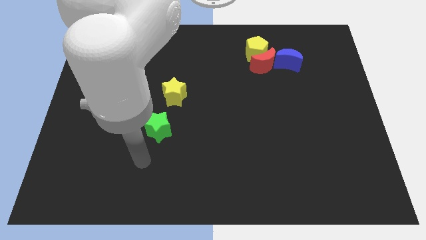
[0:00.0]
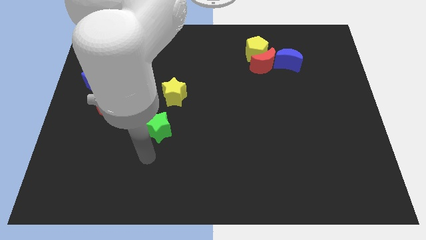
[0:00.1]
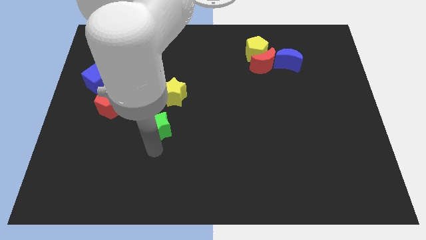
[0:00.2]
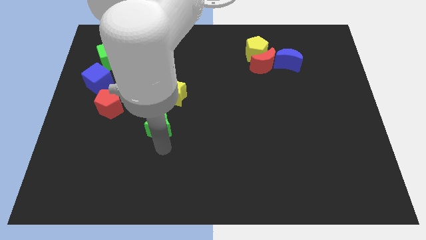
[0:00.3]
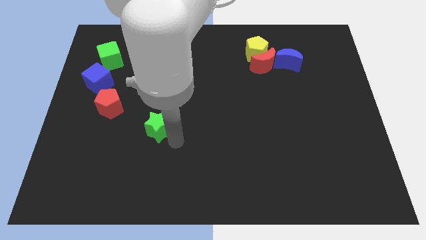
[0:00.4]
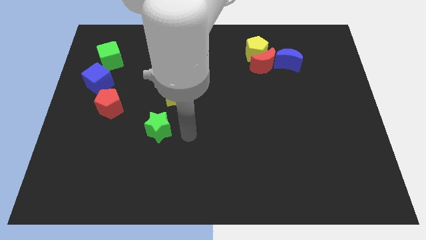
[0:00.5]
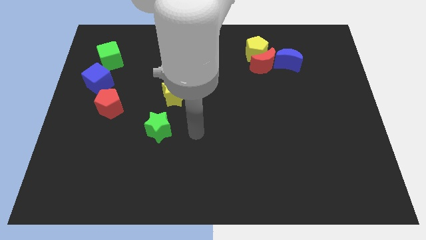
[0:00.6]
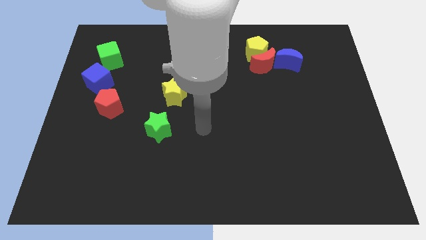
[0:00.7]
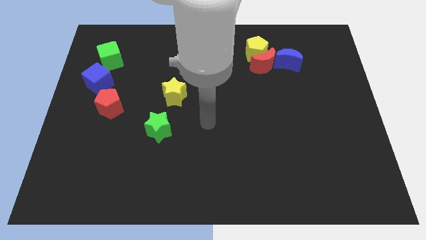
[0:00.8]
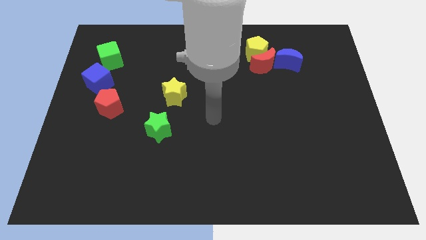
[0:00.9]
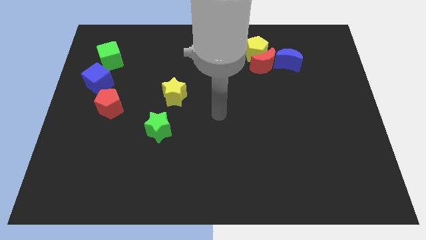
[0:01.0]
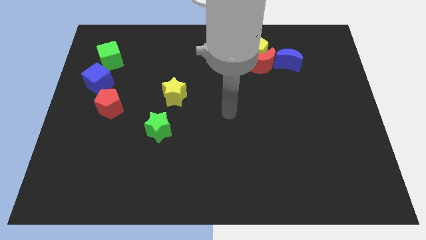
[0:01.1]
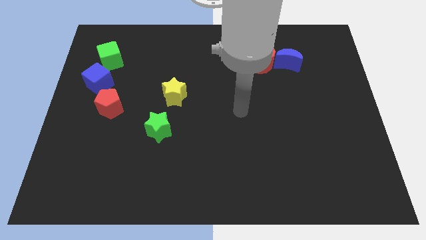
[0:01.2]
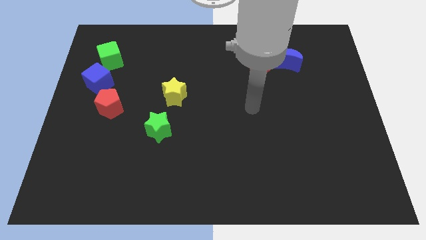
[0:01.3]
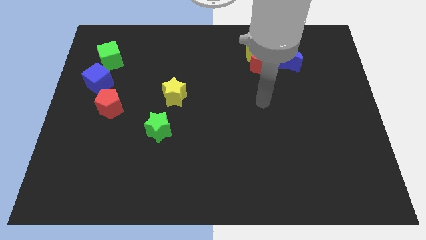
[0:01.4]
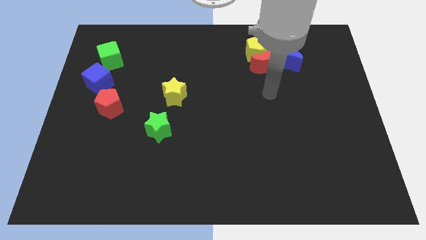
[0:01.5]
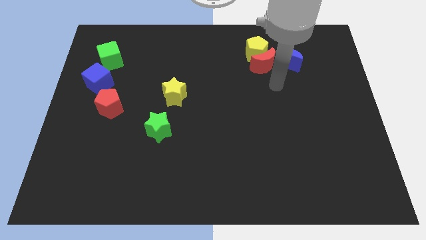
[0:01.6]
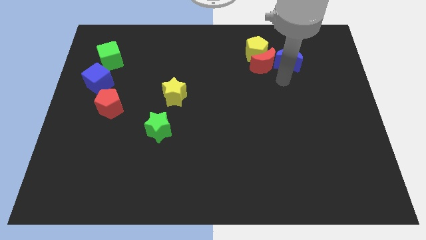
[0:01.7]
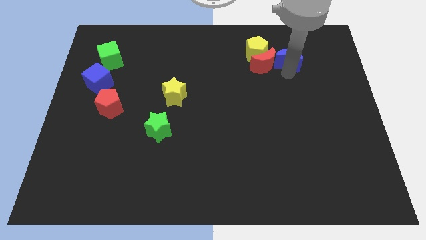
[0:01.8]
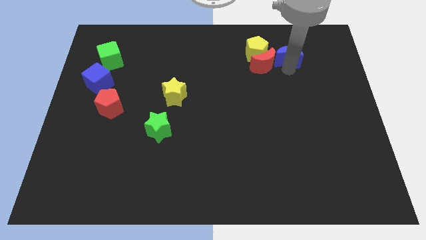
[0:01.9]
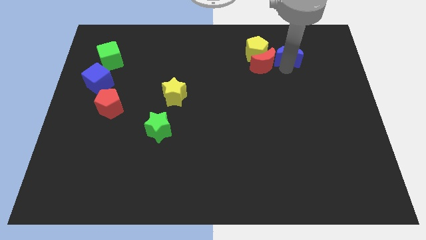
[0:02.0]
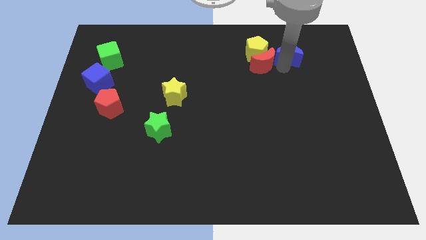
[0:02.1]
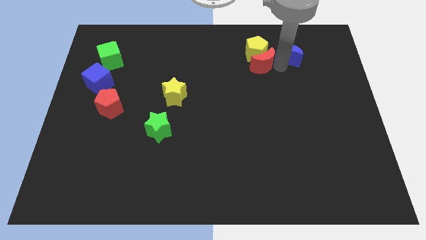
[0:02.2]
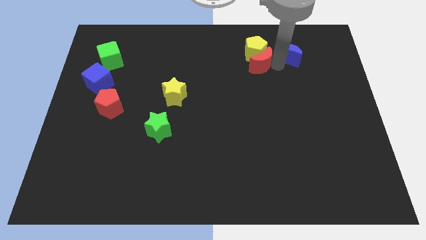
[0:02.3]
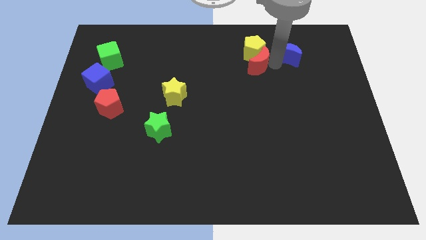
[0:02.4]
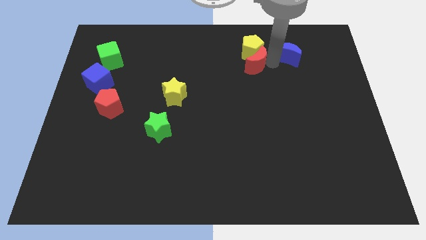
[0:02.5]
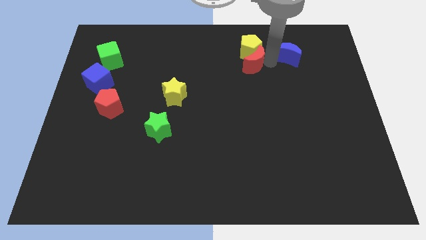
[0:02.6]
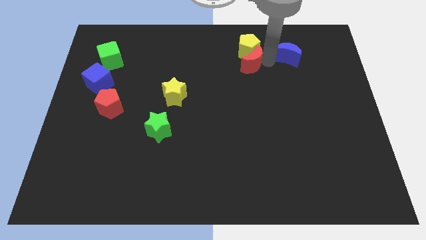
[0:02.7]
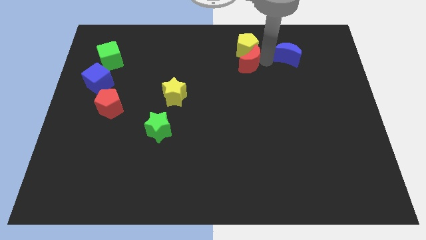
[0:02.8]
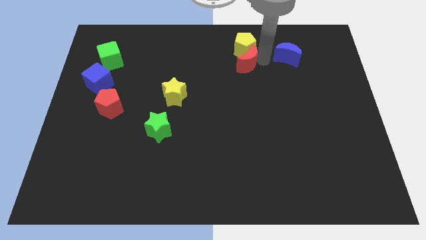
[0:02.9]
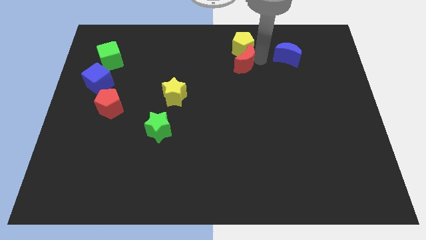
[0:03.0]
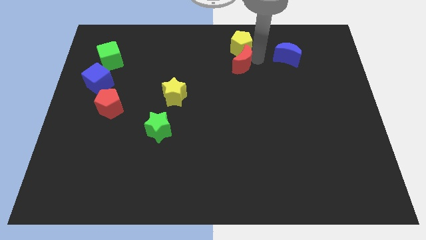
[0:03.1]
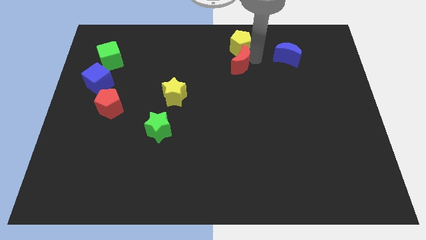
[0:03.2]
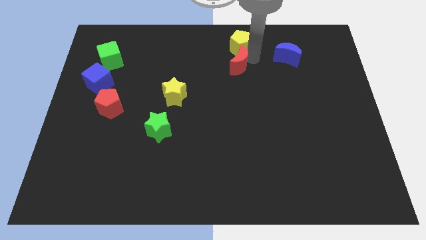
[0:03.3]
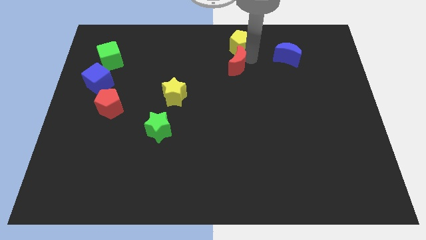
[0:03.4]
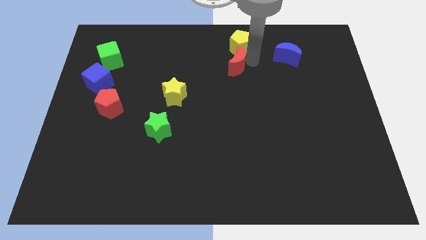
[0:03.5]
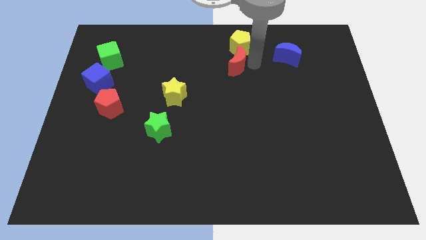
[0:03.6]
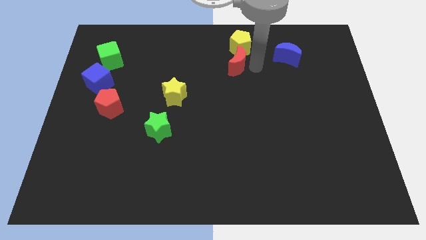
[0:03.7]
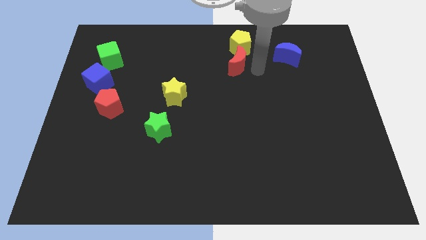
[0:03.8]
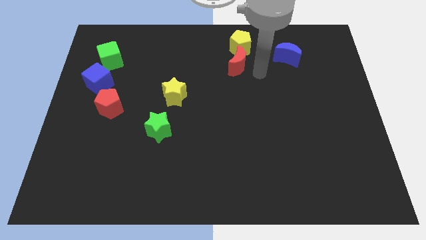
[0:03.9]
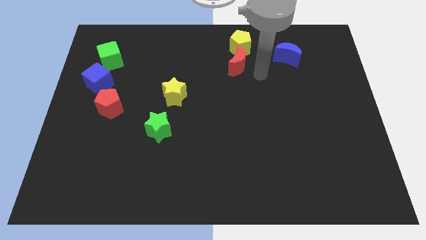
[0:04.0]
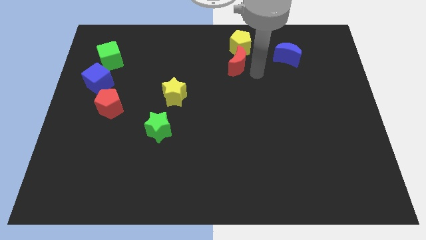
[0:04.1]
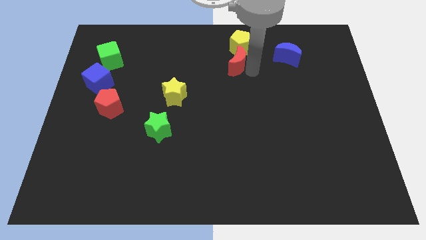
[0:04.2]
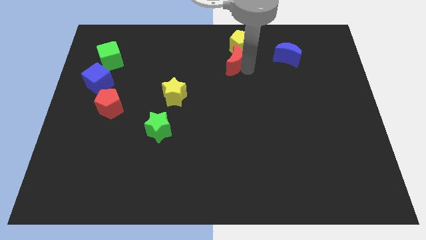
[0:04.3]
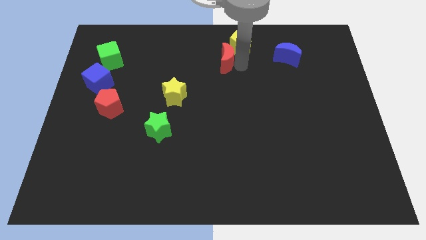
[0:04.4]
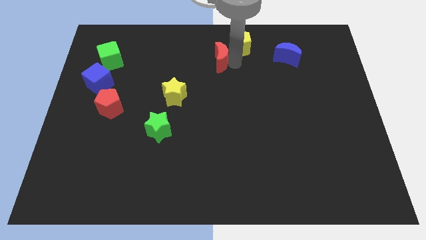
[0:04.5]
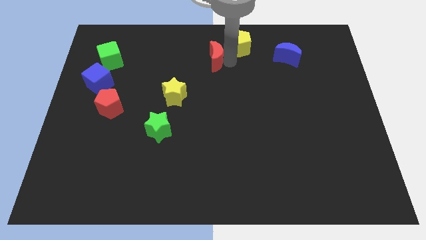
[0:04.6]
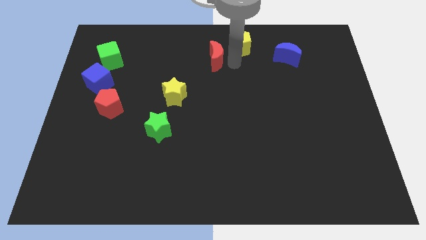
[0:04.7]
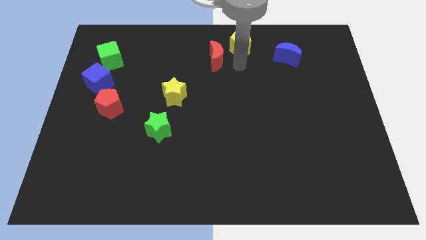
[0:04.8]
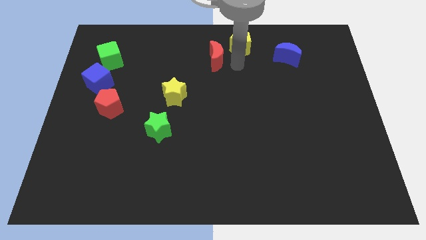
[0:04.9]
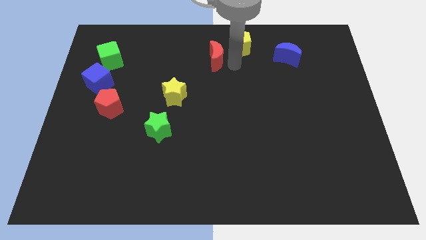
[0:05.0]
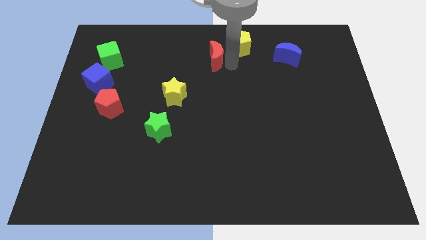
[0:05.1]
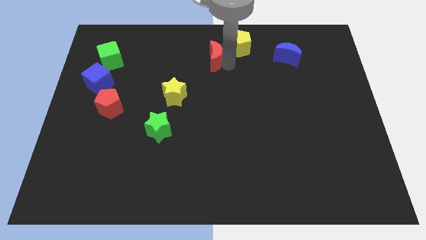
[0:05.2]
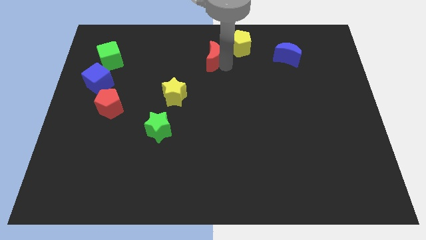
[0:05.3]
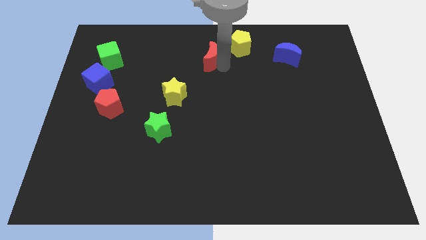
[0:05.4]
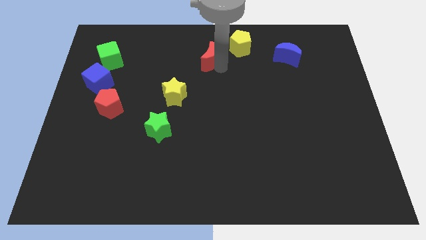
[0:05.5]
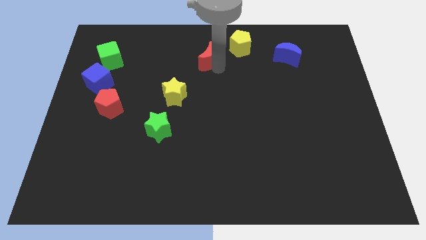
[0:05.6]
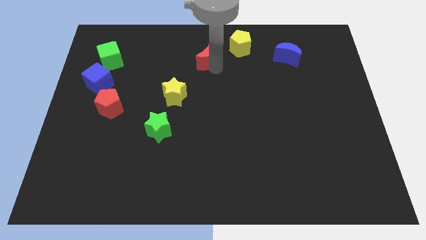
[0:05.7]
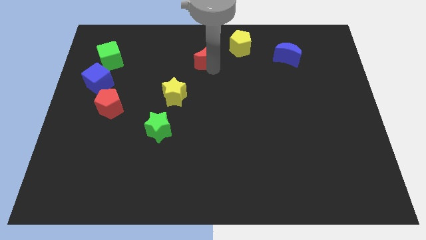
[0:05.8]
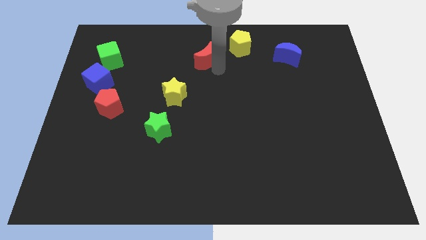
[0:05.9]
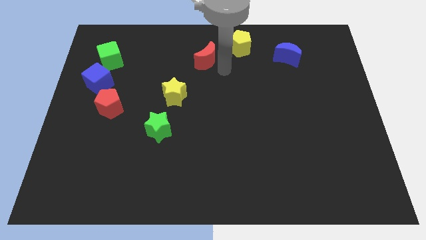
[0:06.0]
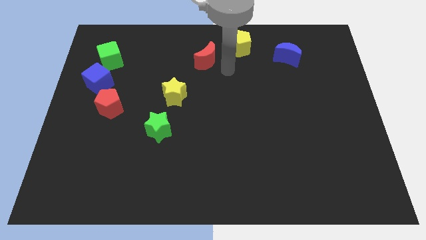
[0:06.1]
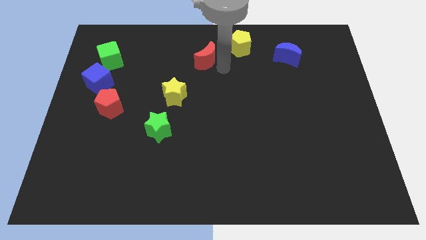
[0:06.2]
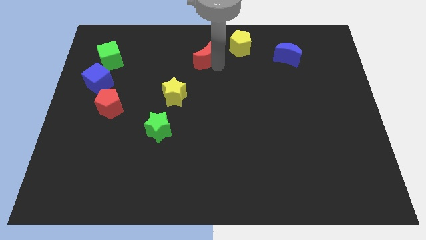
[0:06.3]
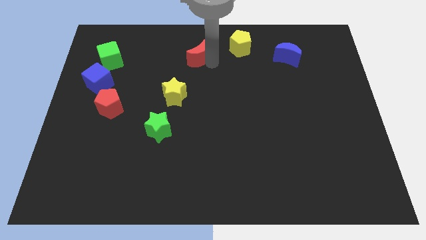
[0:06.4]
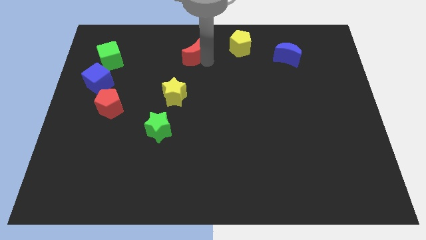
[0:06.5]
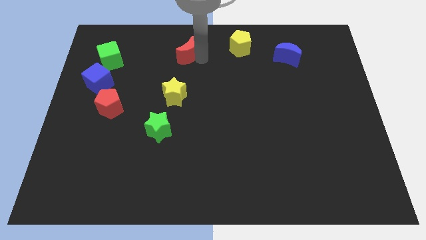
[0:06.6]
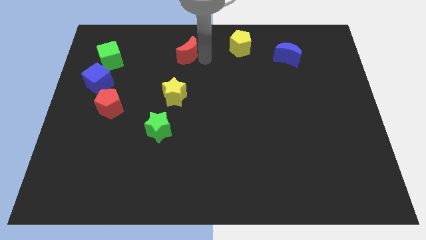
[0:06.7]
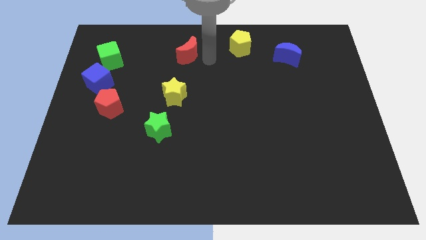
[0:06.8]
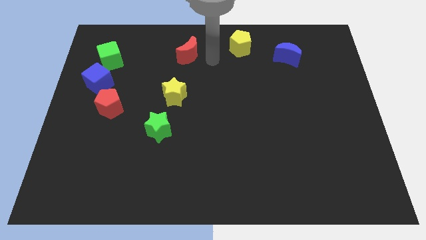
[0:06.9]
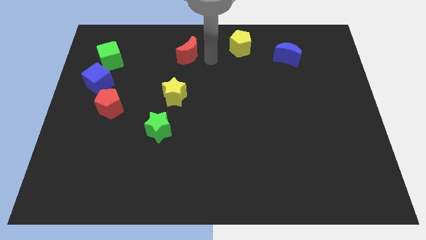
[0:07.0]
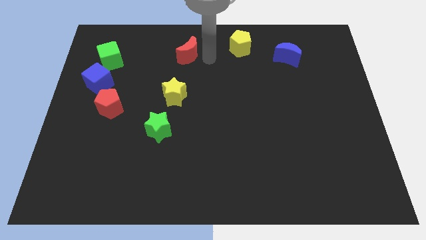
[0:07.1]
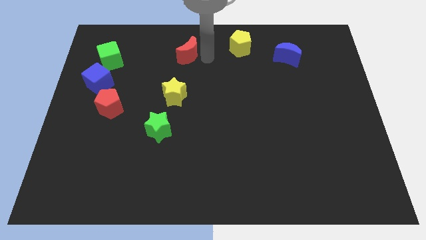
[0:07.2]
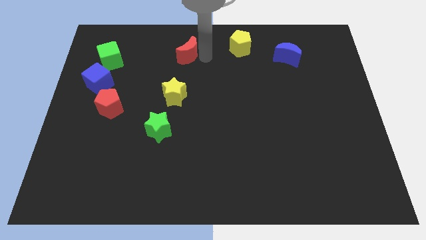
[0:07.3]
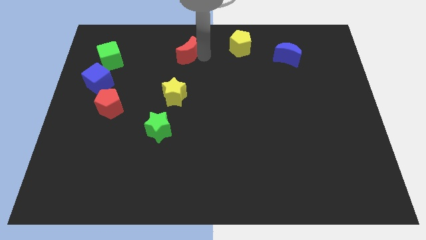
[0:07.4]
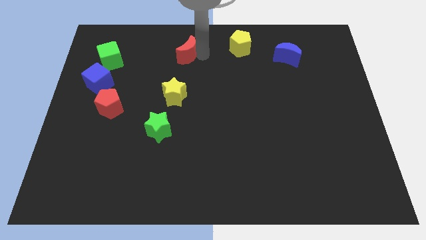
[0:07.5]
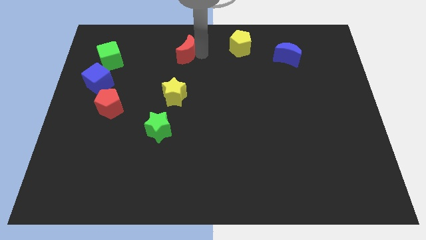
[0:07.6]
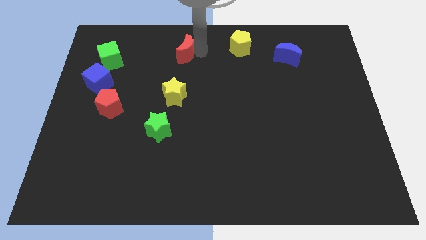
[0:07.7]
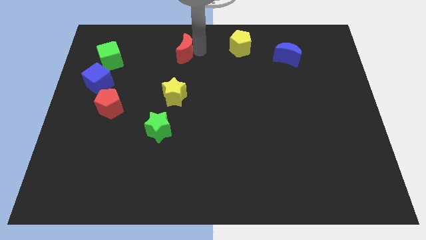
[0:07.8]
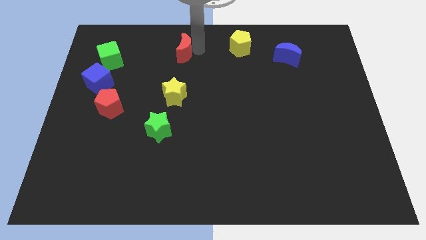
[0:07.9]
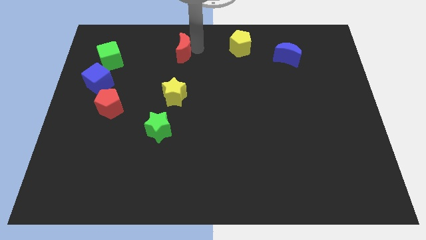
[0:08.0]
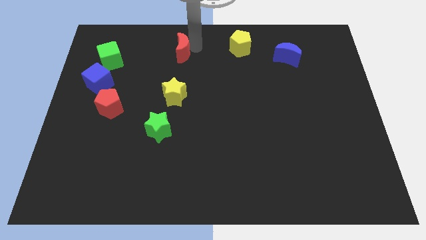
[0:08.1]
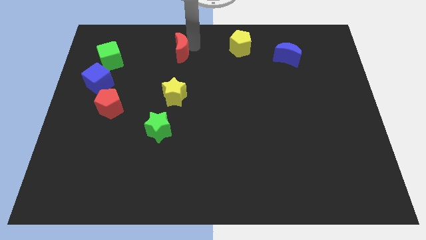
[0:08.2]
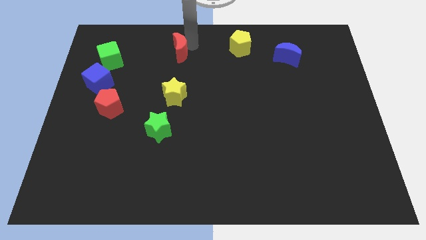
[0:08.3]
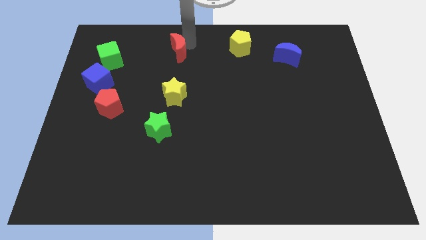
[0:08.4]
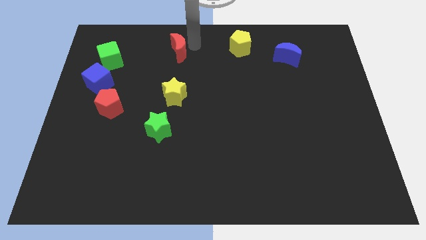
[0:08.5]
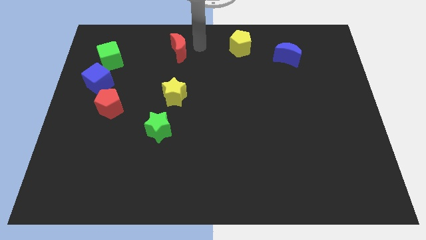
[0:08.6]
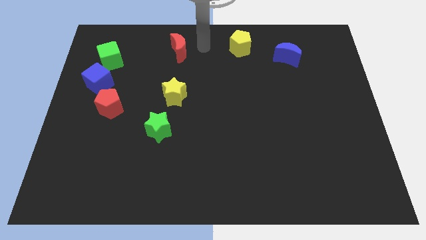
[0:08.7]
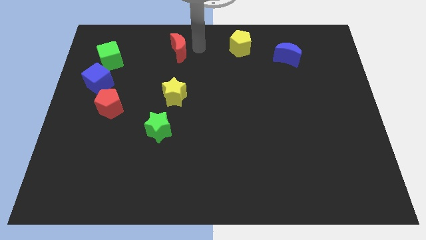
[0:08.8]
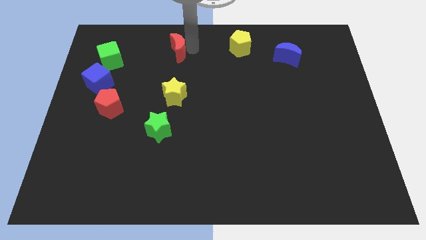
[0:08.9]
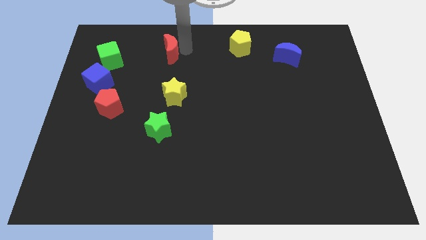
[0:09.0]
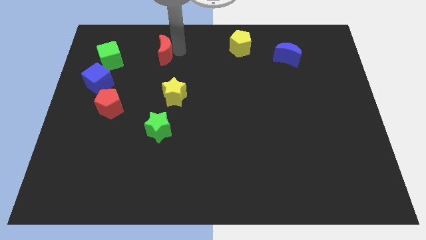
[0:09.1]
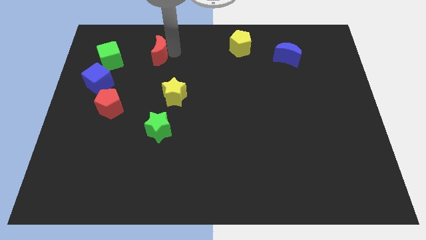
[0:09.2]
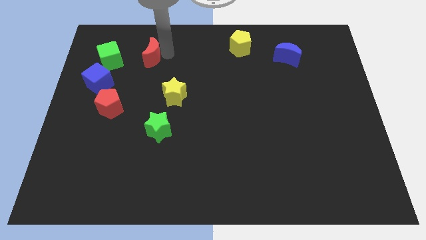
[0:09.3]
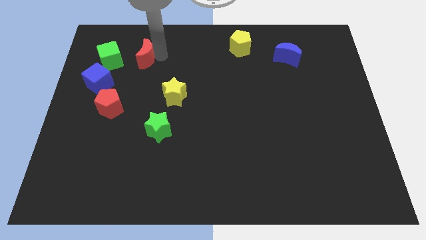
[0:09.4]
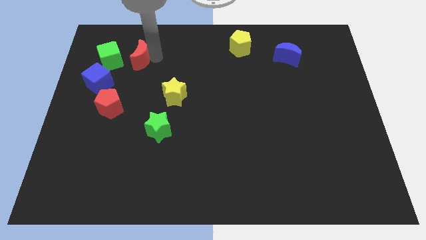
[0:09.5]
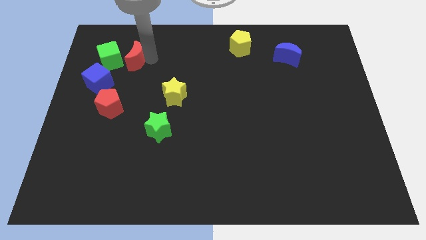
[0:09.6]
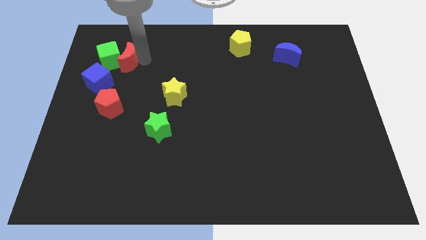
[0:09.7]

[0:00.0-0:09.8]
push the red moon next to the green cube
